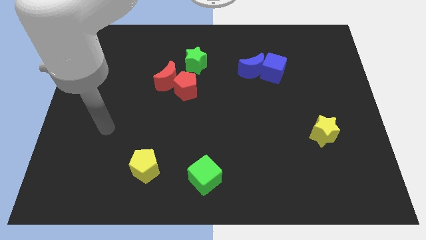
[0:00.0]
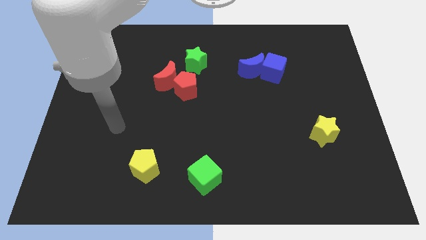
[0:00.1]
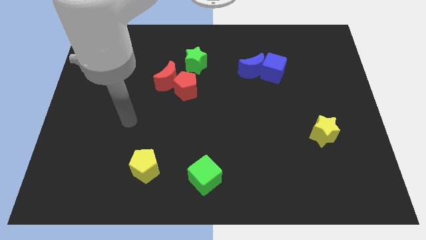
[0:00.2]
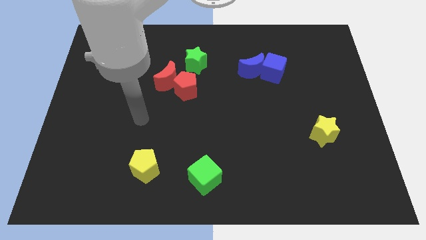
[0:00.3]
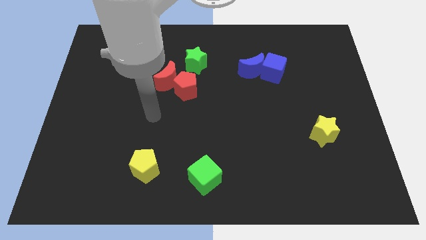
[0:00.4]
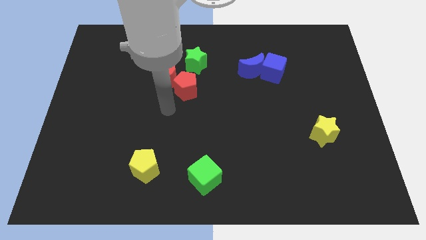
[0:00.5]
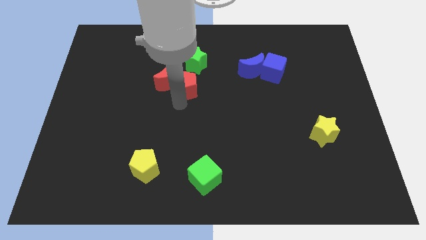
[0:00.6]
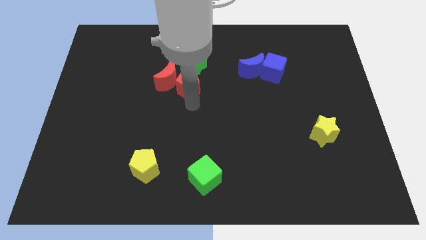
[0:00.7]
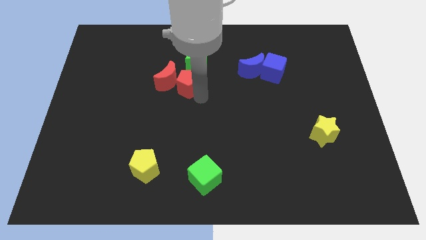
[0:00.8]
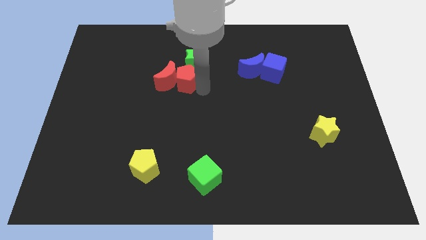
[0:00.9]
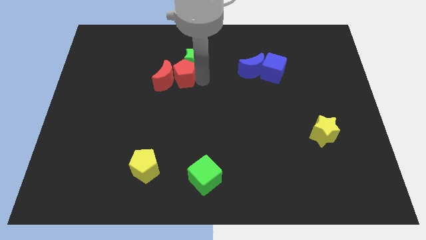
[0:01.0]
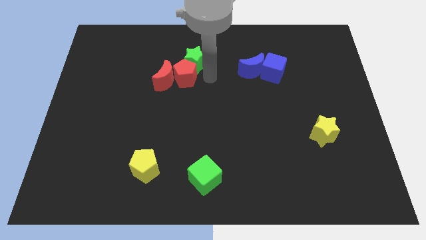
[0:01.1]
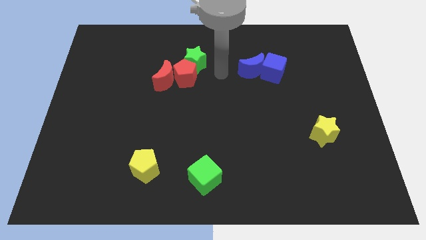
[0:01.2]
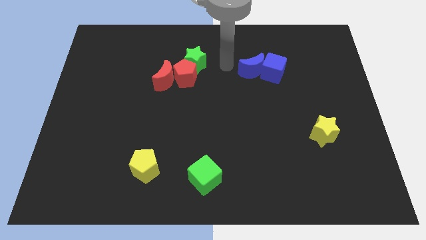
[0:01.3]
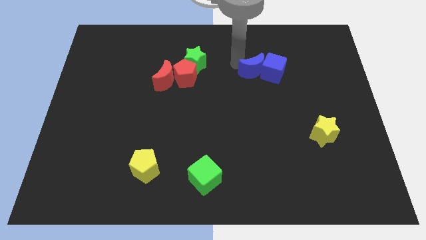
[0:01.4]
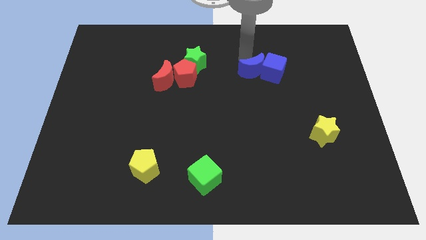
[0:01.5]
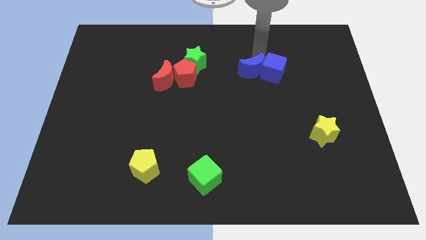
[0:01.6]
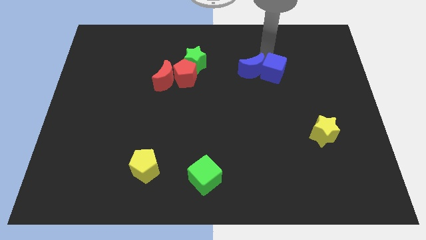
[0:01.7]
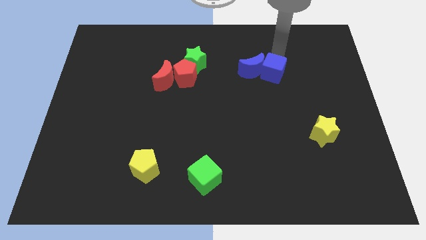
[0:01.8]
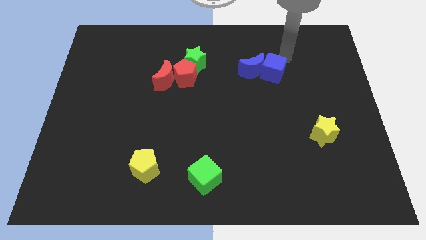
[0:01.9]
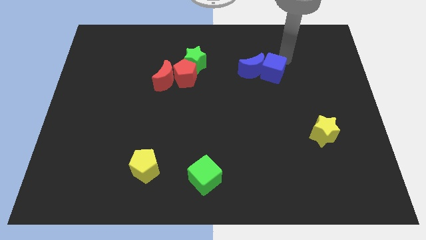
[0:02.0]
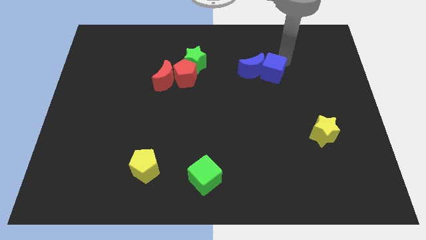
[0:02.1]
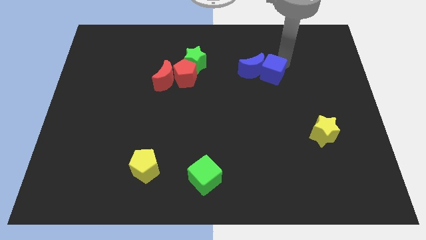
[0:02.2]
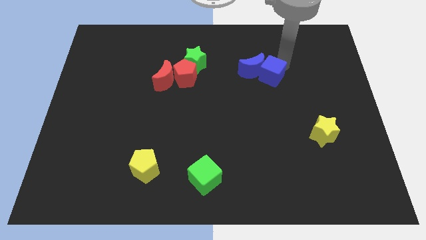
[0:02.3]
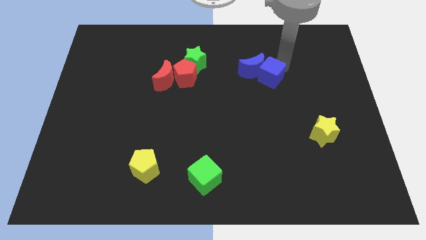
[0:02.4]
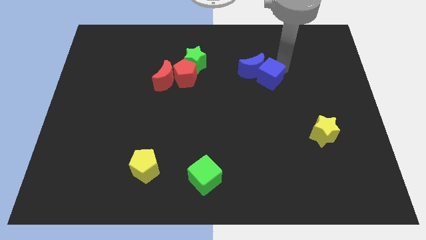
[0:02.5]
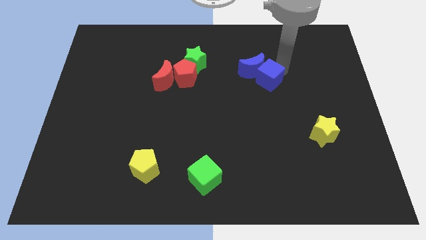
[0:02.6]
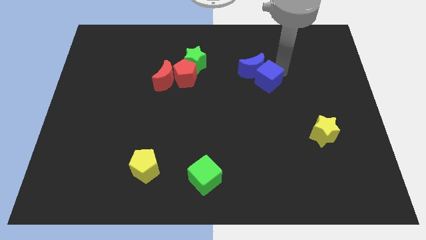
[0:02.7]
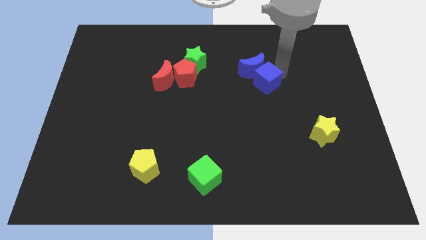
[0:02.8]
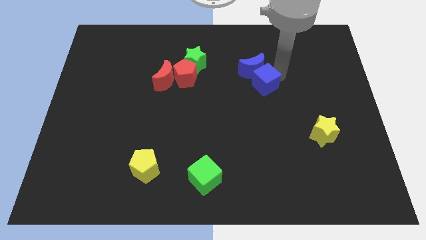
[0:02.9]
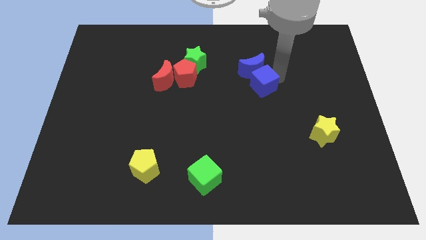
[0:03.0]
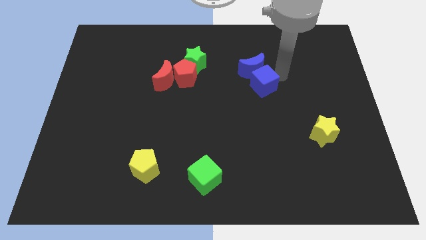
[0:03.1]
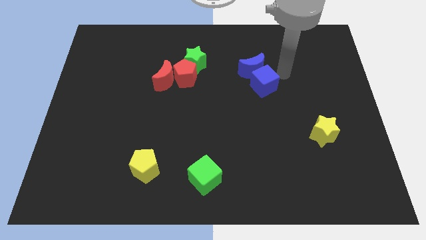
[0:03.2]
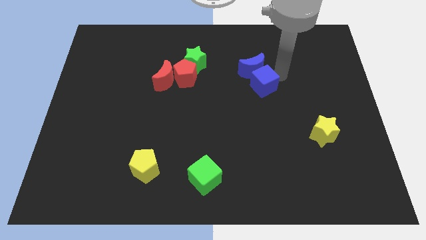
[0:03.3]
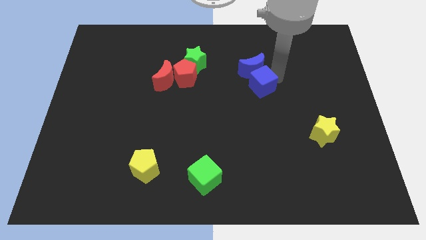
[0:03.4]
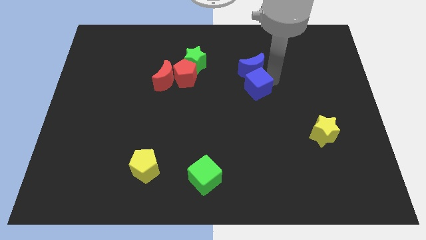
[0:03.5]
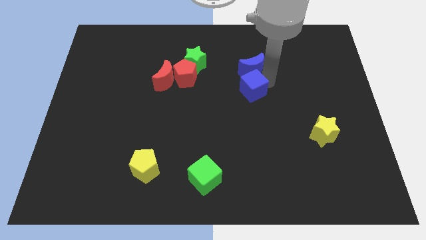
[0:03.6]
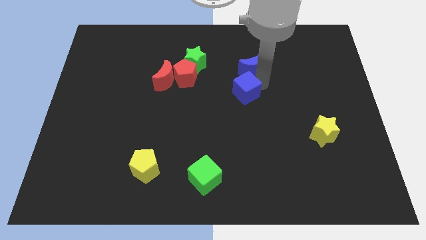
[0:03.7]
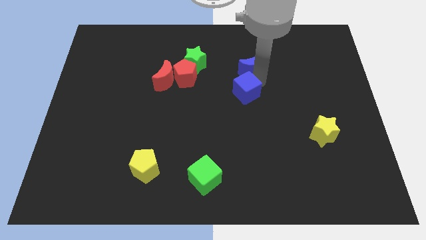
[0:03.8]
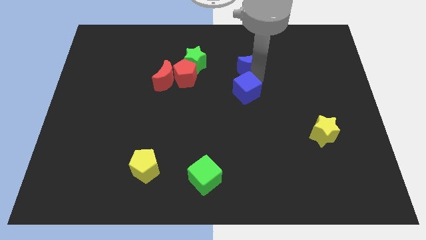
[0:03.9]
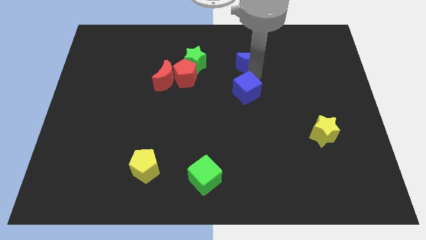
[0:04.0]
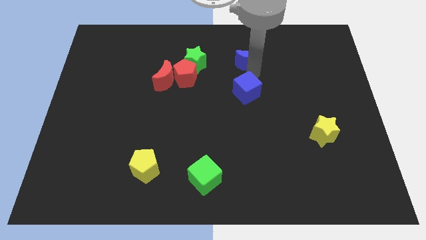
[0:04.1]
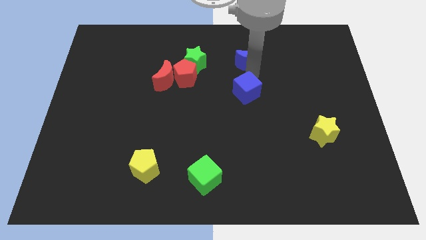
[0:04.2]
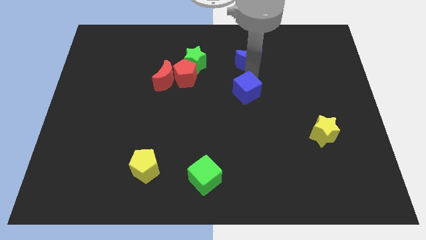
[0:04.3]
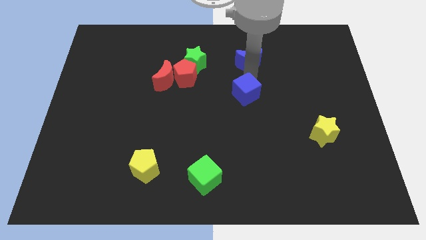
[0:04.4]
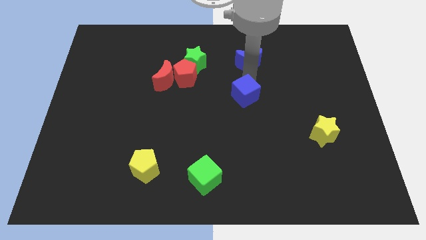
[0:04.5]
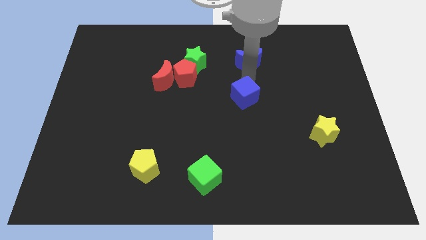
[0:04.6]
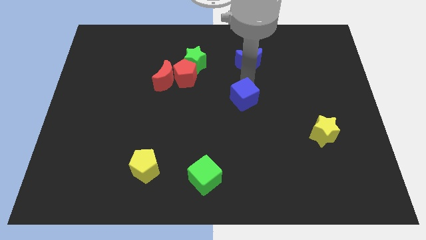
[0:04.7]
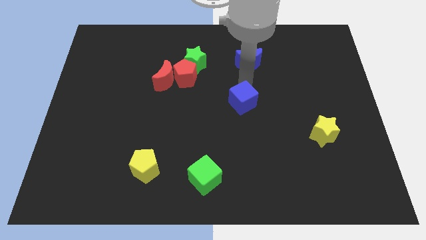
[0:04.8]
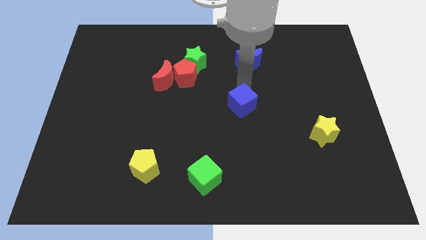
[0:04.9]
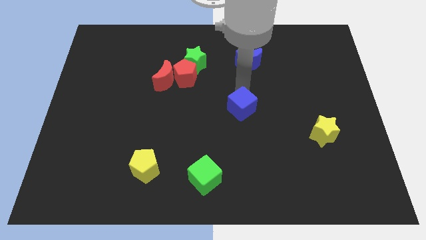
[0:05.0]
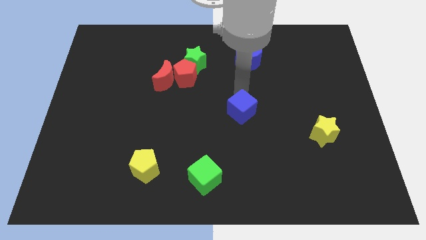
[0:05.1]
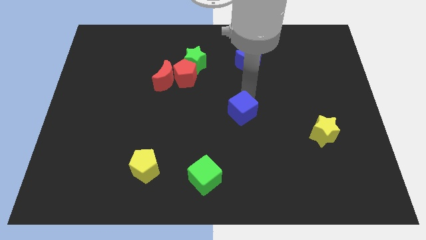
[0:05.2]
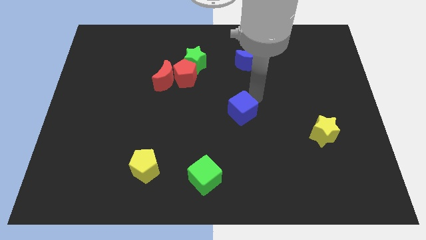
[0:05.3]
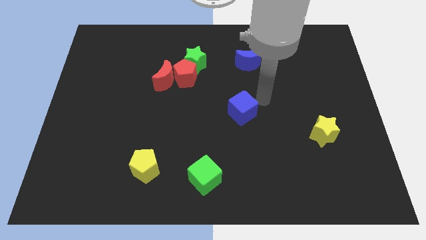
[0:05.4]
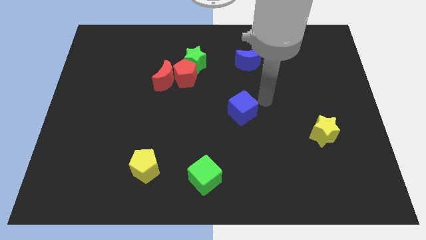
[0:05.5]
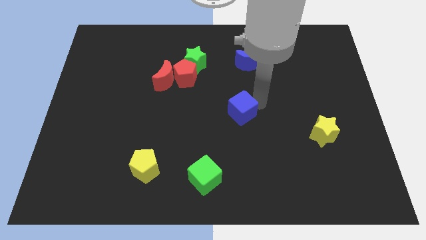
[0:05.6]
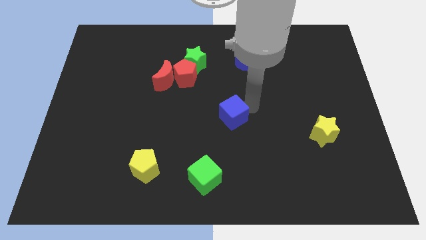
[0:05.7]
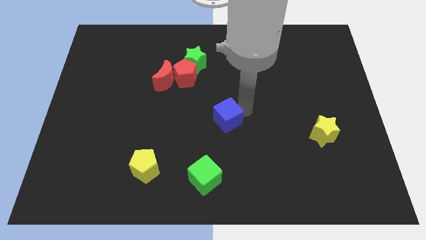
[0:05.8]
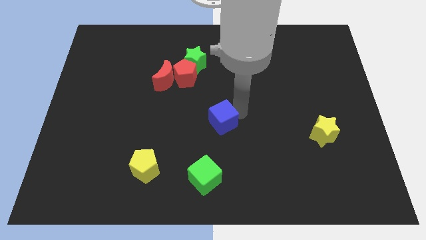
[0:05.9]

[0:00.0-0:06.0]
move the blue cube down and to the left diagonally

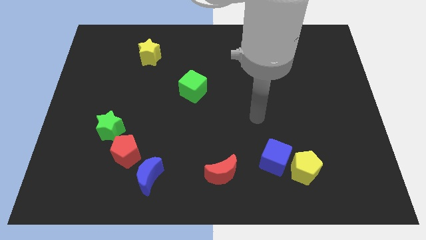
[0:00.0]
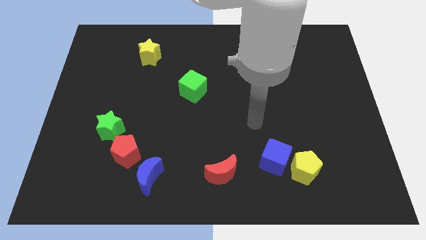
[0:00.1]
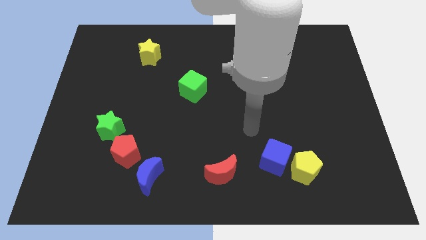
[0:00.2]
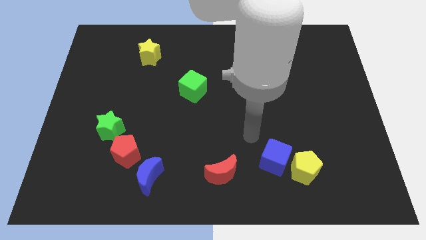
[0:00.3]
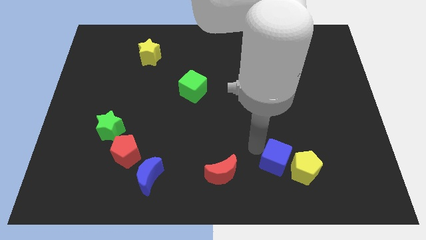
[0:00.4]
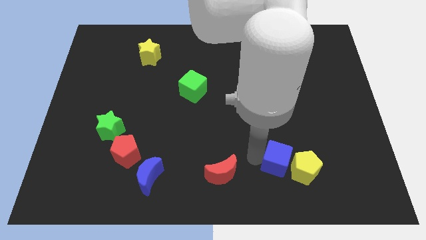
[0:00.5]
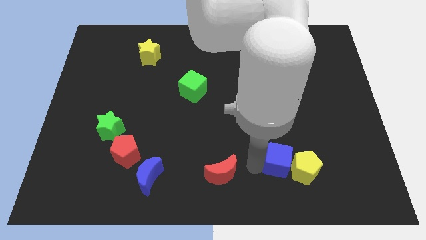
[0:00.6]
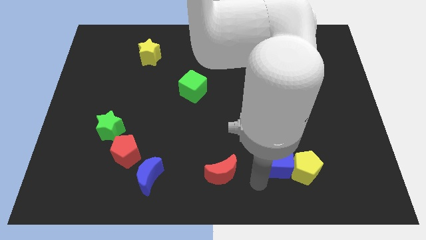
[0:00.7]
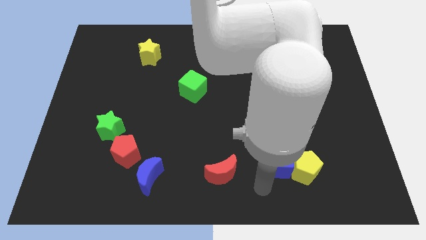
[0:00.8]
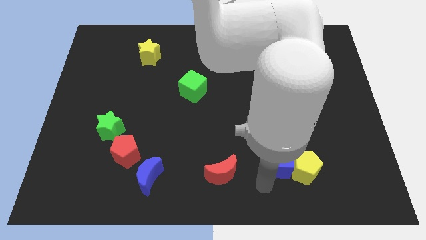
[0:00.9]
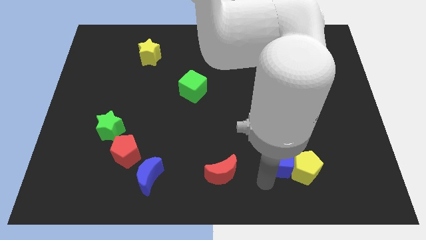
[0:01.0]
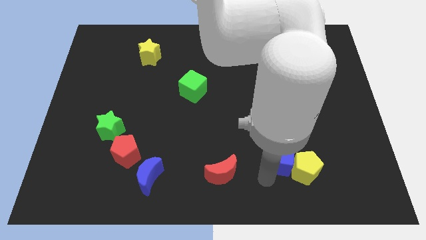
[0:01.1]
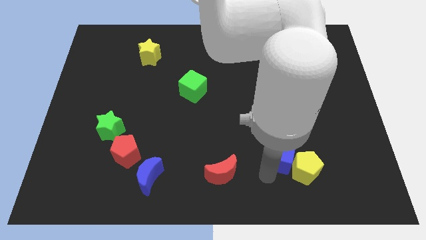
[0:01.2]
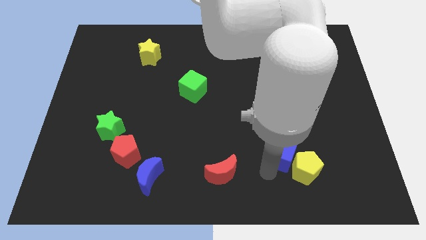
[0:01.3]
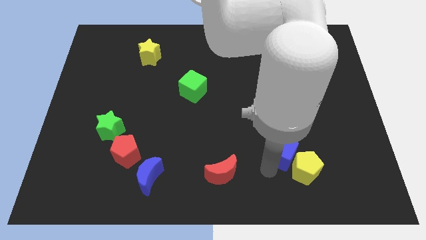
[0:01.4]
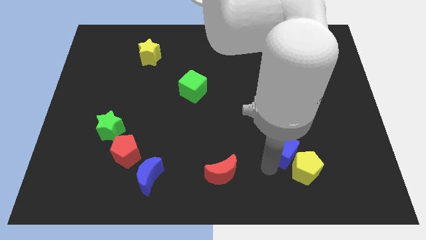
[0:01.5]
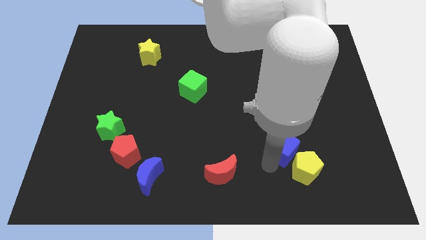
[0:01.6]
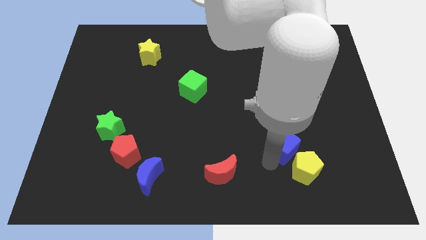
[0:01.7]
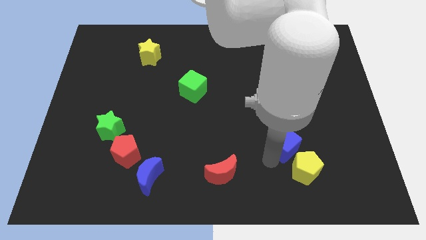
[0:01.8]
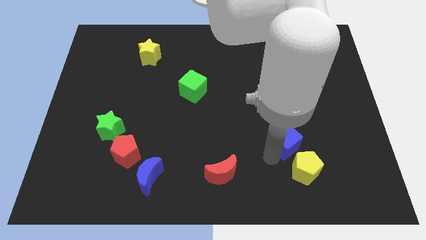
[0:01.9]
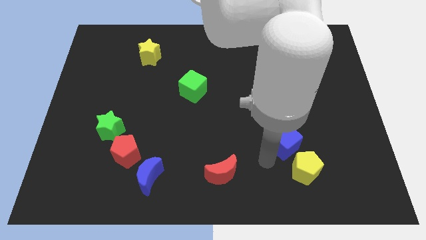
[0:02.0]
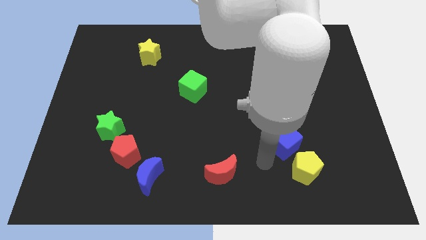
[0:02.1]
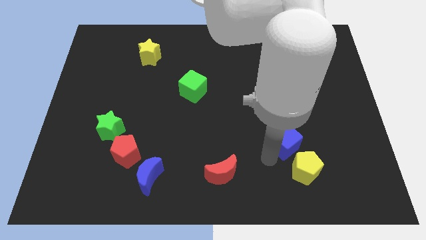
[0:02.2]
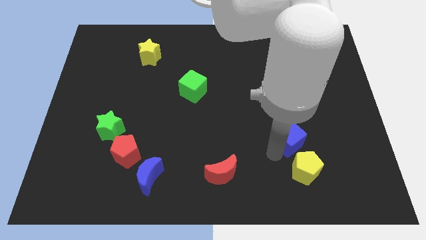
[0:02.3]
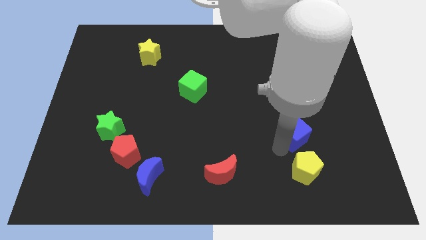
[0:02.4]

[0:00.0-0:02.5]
slightly slide the blue cube upwards and to the right diagonally
